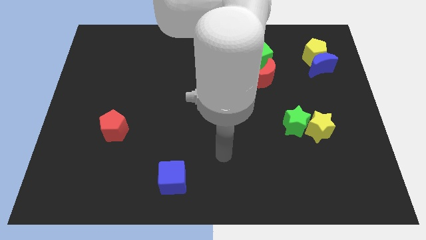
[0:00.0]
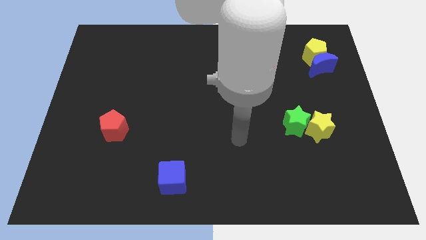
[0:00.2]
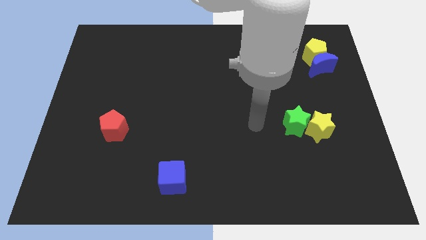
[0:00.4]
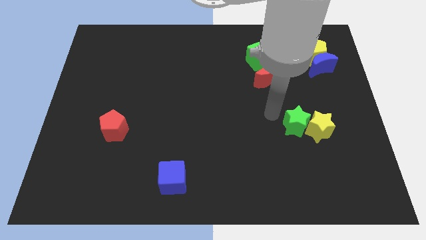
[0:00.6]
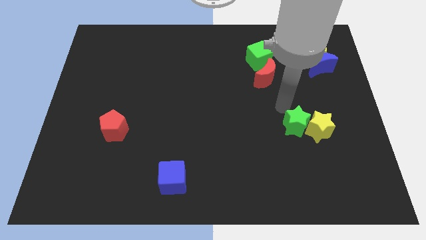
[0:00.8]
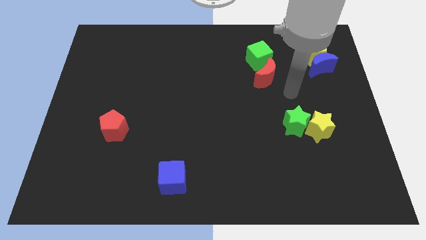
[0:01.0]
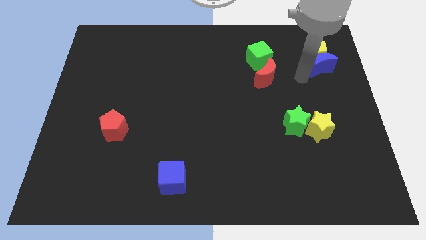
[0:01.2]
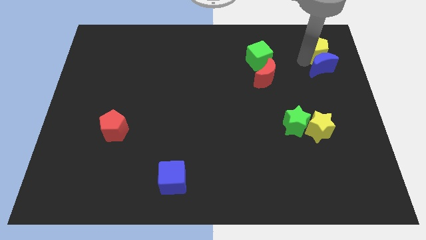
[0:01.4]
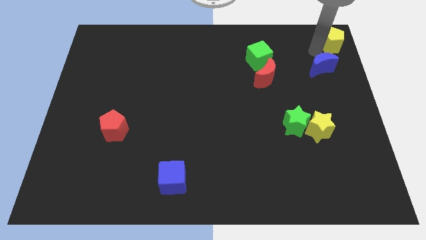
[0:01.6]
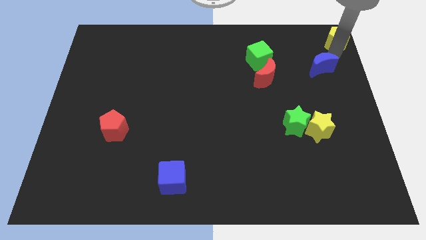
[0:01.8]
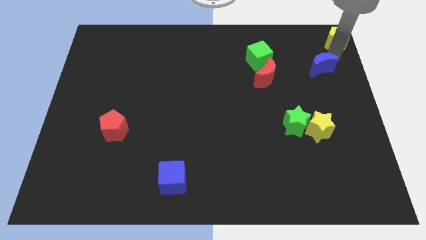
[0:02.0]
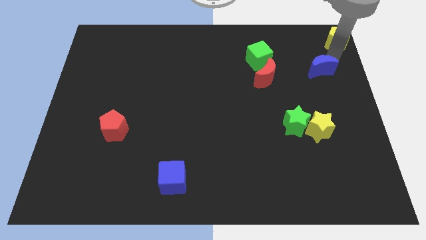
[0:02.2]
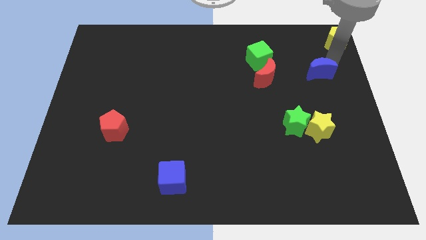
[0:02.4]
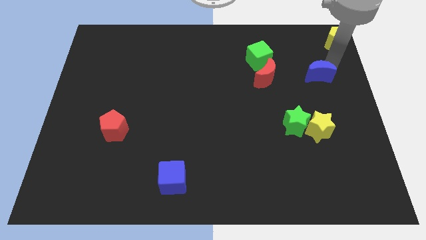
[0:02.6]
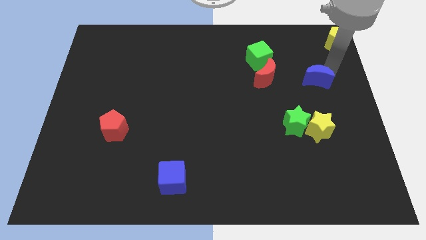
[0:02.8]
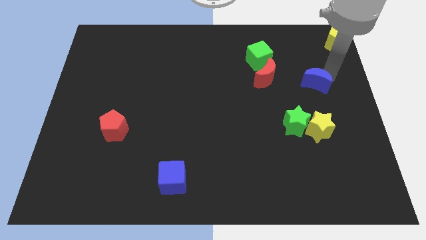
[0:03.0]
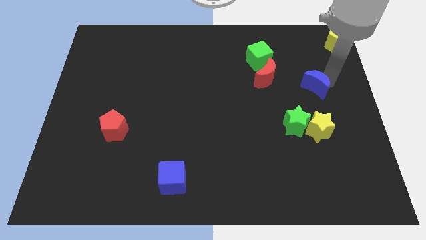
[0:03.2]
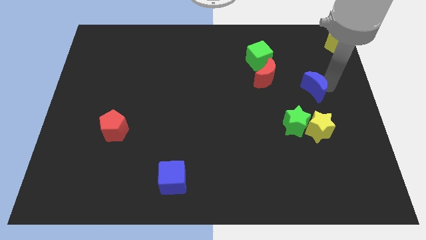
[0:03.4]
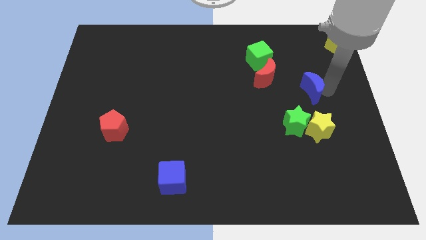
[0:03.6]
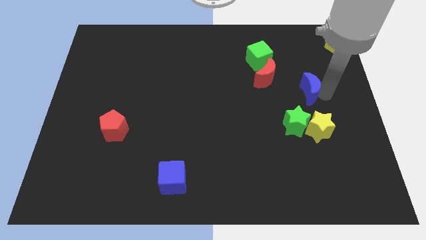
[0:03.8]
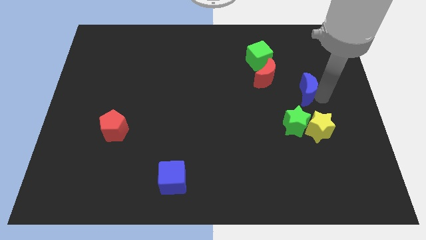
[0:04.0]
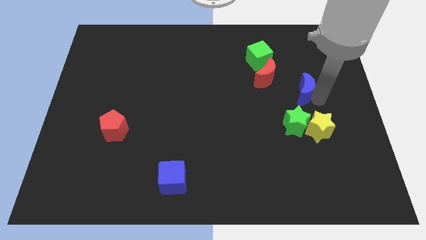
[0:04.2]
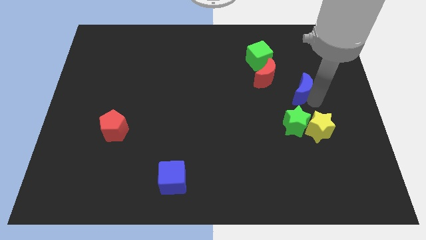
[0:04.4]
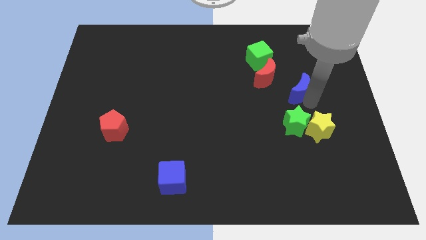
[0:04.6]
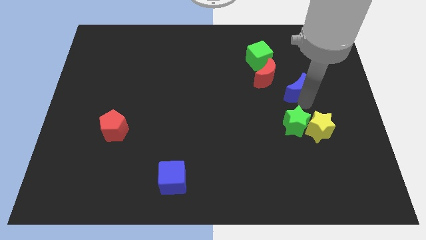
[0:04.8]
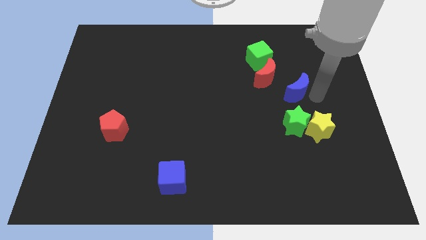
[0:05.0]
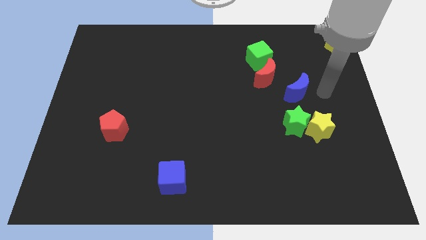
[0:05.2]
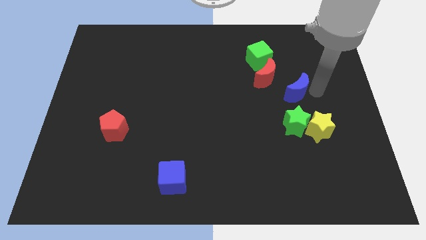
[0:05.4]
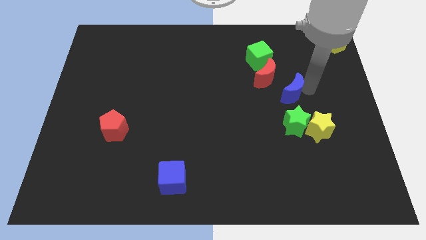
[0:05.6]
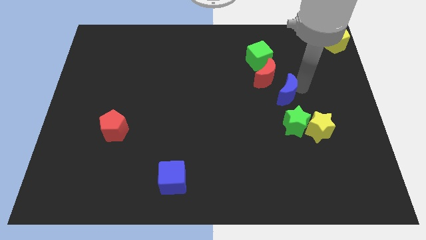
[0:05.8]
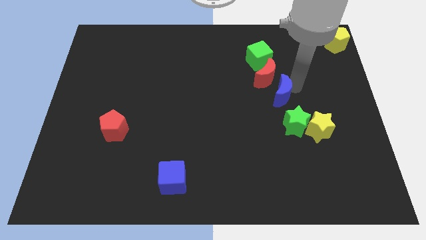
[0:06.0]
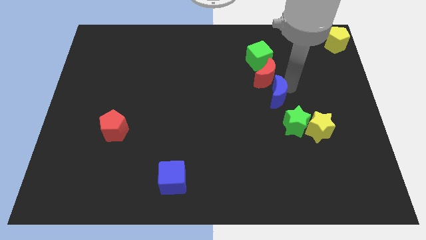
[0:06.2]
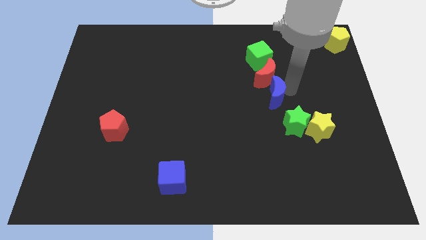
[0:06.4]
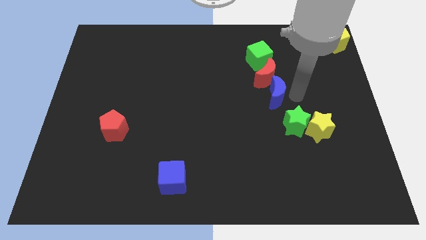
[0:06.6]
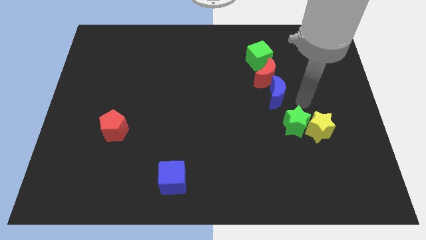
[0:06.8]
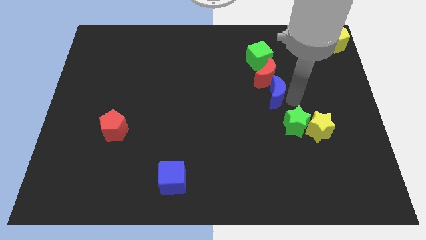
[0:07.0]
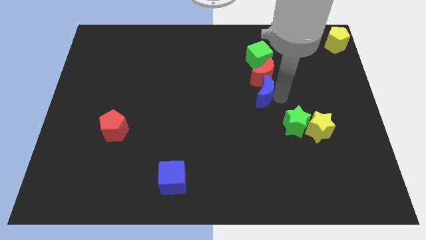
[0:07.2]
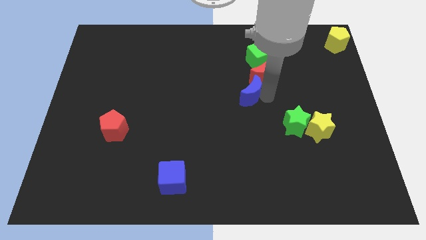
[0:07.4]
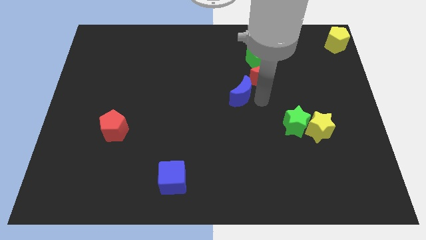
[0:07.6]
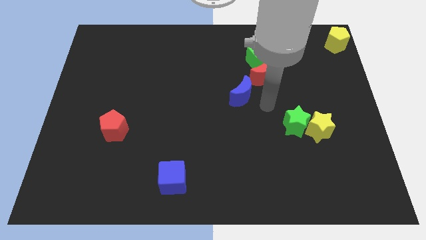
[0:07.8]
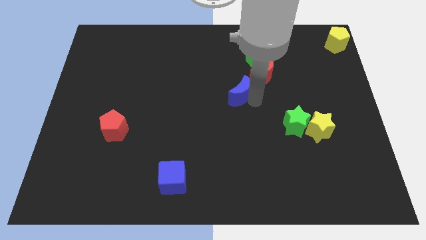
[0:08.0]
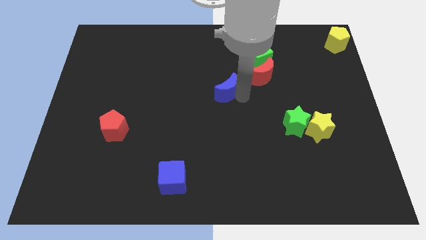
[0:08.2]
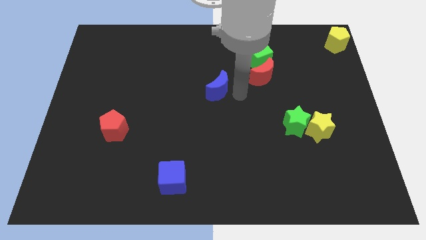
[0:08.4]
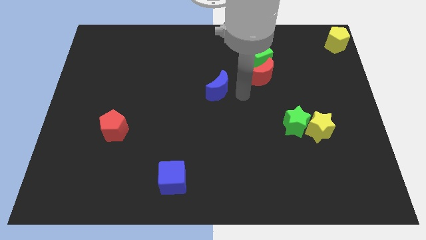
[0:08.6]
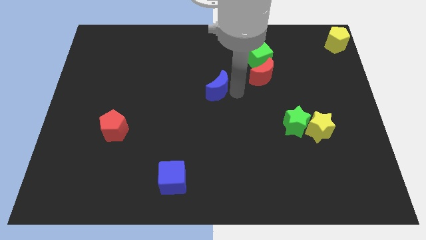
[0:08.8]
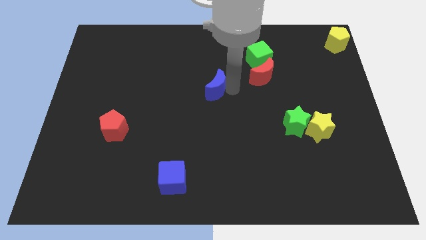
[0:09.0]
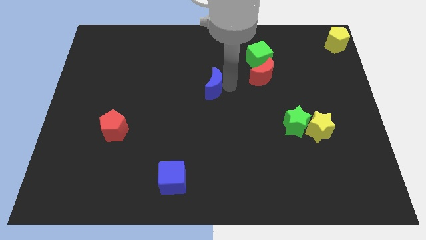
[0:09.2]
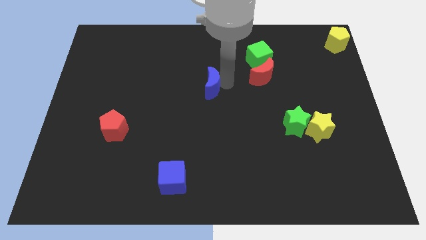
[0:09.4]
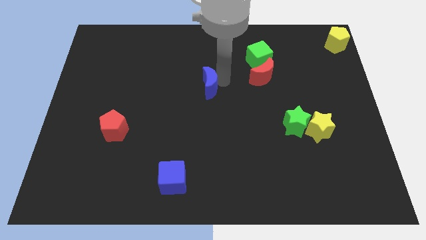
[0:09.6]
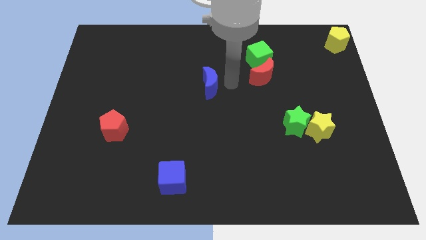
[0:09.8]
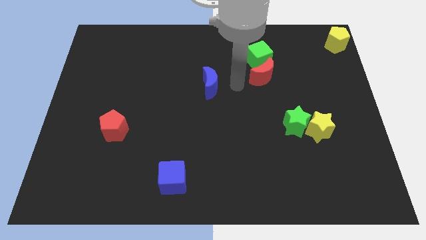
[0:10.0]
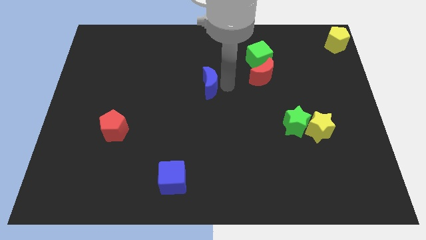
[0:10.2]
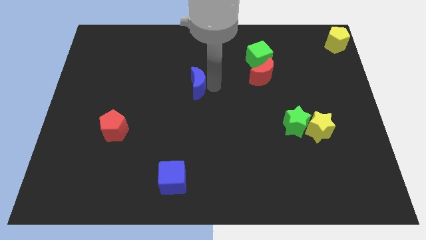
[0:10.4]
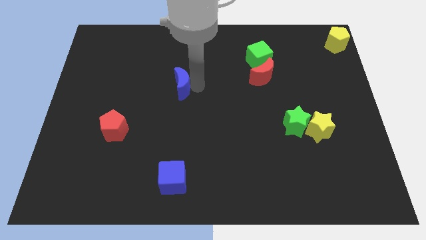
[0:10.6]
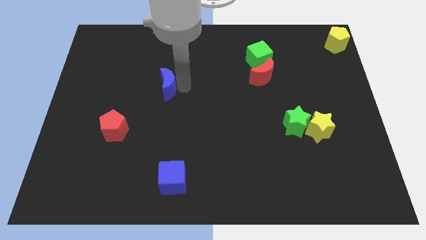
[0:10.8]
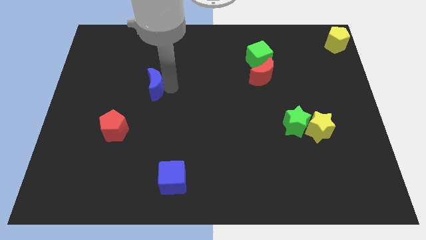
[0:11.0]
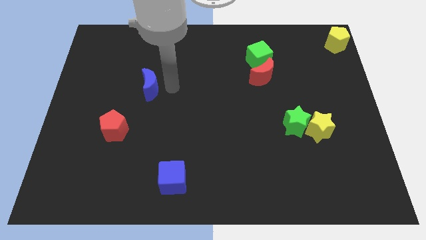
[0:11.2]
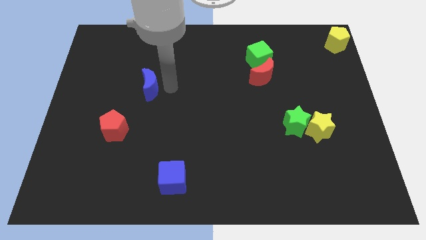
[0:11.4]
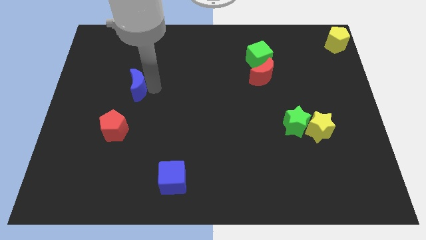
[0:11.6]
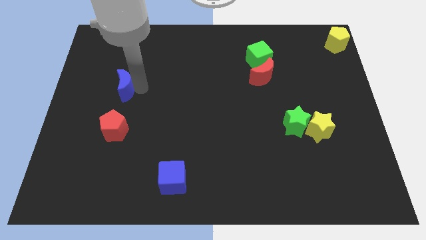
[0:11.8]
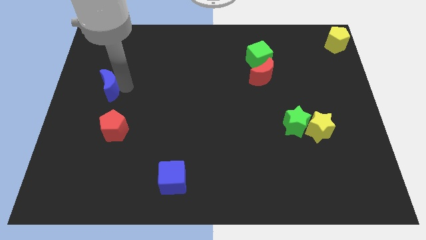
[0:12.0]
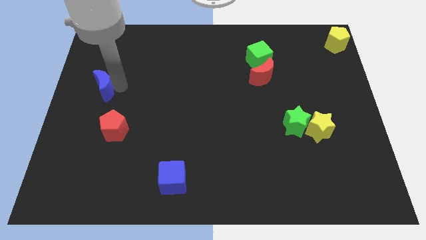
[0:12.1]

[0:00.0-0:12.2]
push the blue moon to the left side

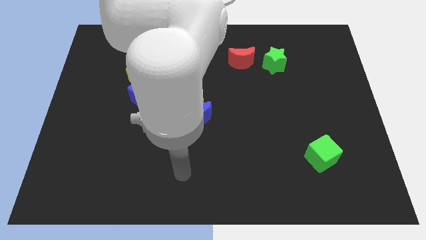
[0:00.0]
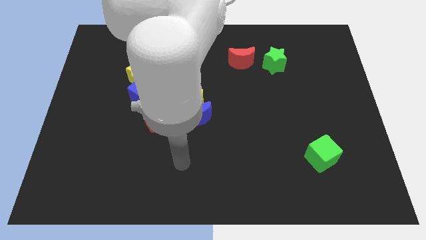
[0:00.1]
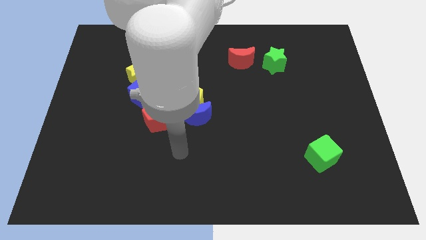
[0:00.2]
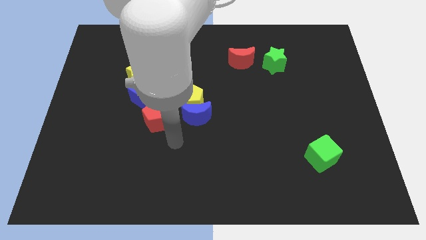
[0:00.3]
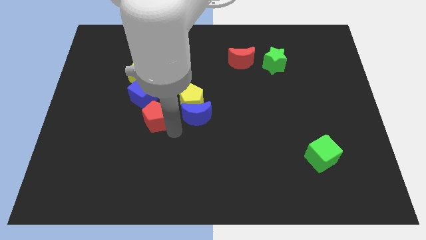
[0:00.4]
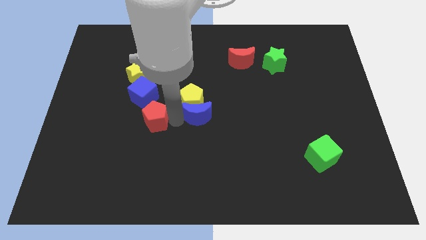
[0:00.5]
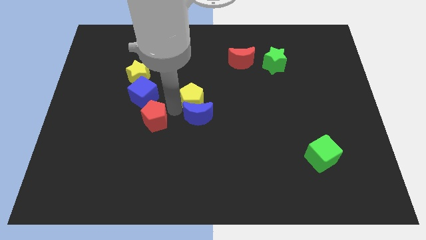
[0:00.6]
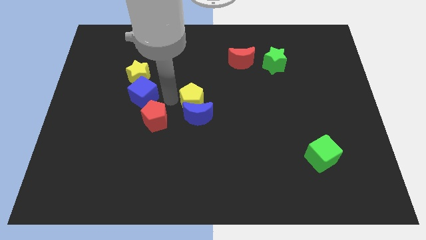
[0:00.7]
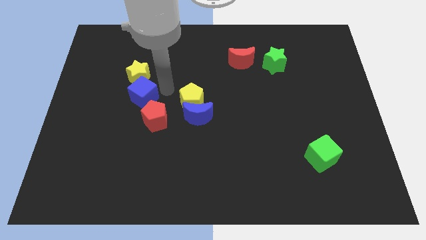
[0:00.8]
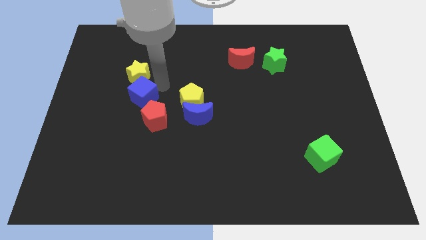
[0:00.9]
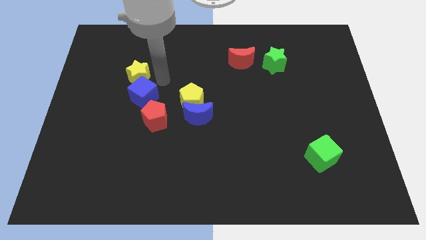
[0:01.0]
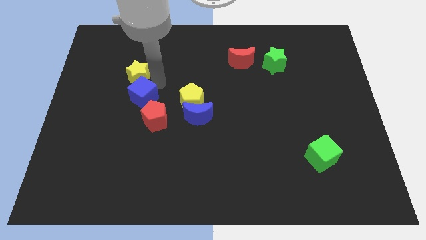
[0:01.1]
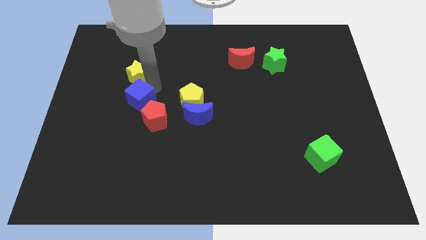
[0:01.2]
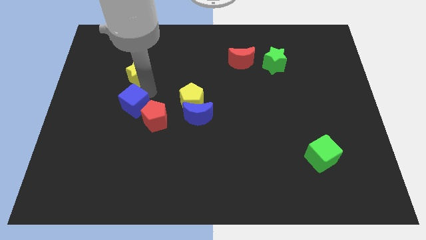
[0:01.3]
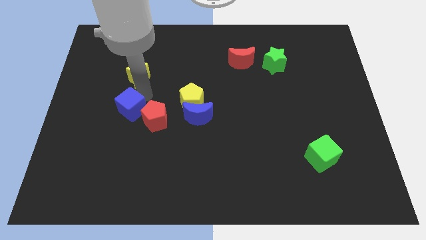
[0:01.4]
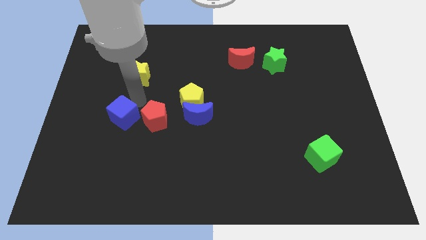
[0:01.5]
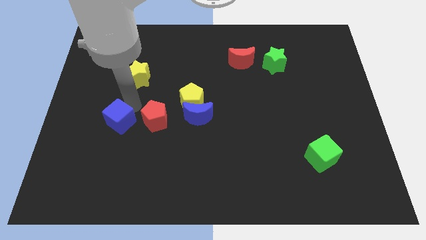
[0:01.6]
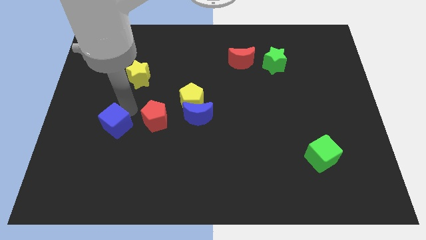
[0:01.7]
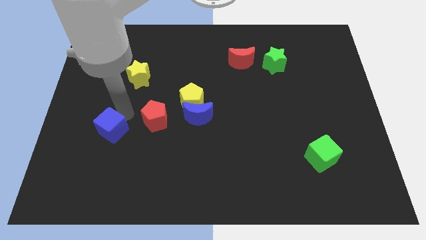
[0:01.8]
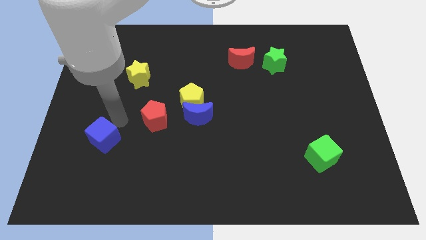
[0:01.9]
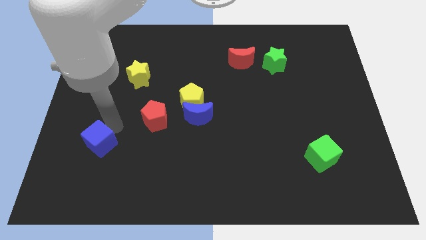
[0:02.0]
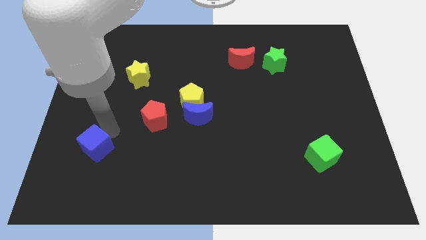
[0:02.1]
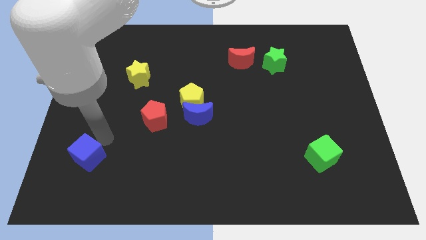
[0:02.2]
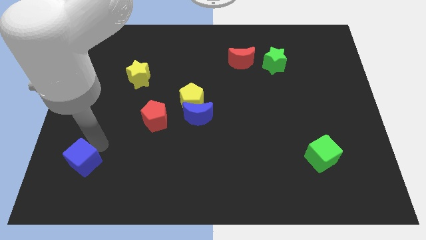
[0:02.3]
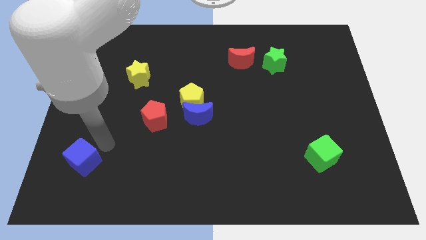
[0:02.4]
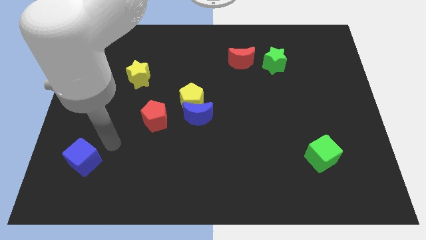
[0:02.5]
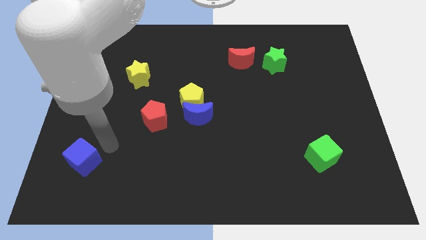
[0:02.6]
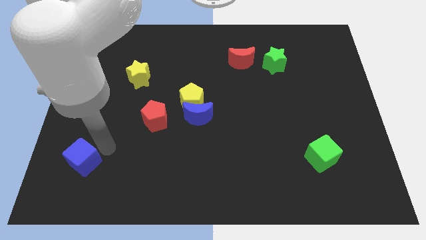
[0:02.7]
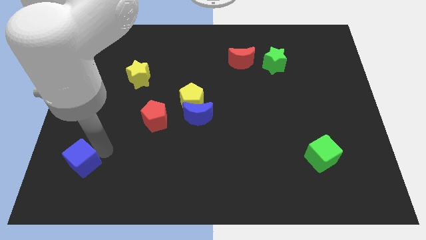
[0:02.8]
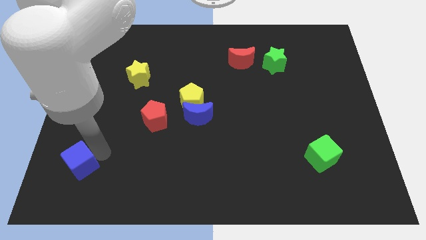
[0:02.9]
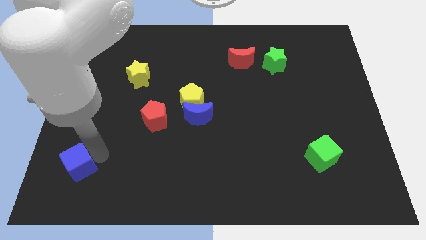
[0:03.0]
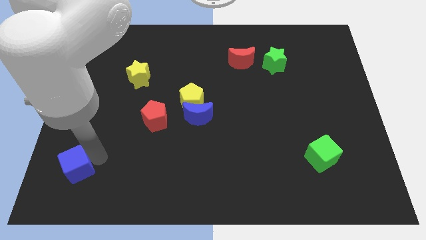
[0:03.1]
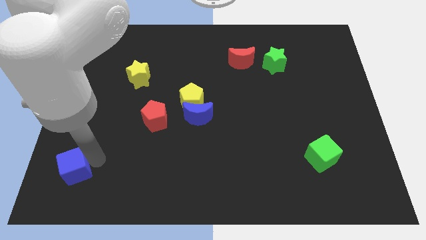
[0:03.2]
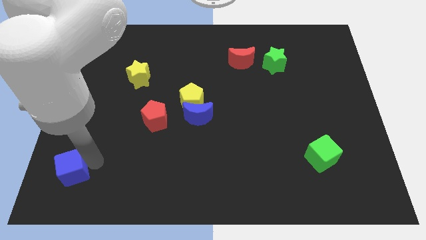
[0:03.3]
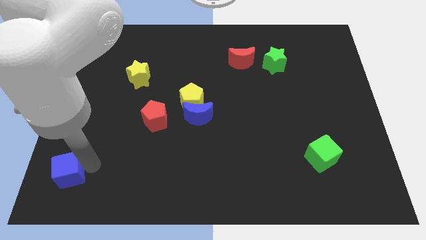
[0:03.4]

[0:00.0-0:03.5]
push the blue cube to the bottom left of the board
